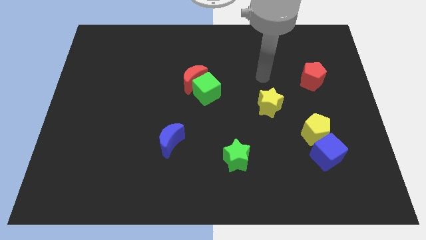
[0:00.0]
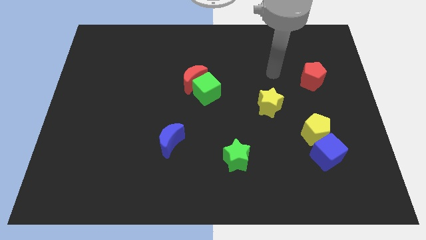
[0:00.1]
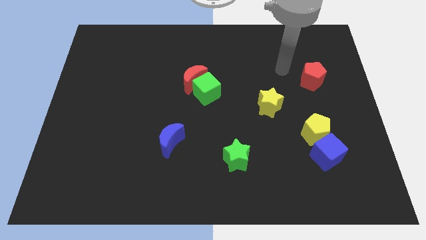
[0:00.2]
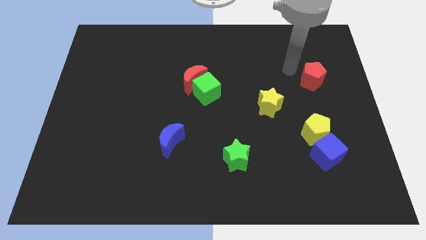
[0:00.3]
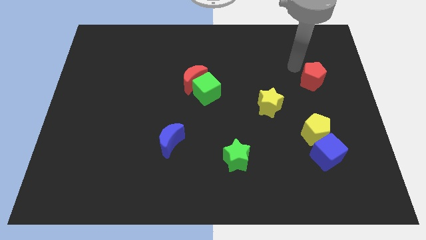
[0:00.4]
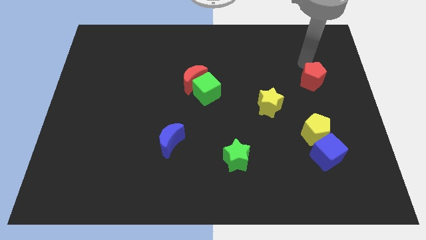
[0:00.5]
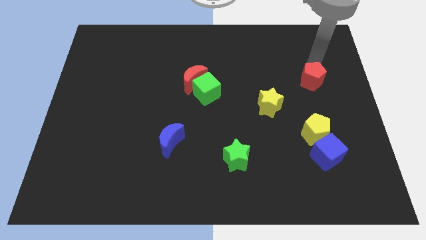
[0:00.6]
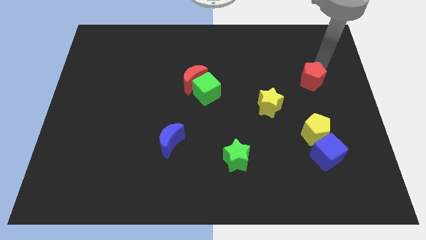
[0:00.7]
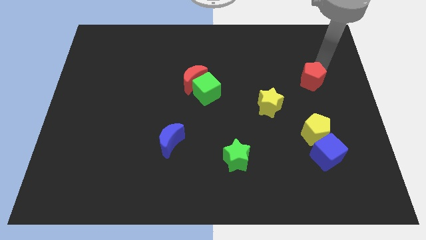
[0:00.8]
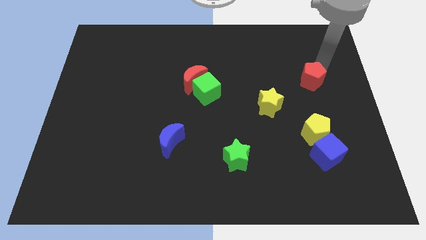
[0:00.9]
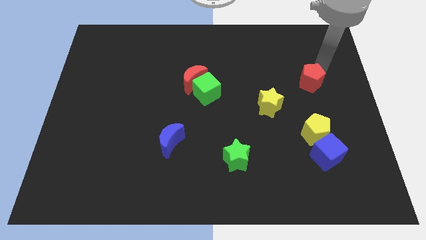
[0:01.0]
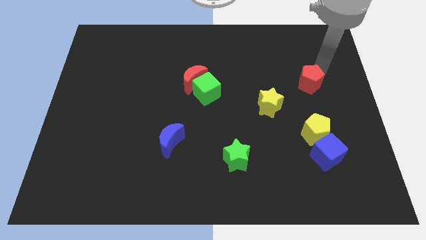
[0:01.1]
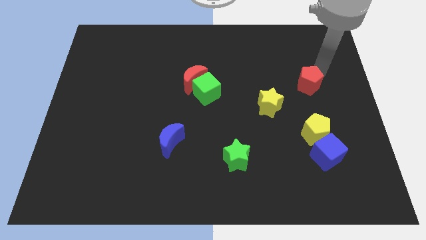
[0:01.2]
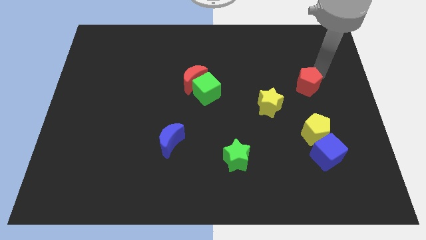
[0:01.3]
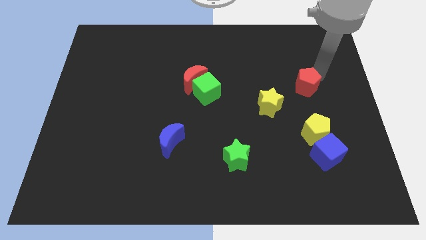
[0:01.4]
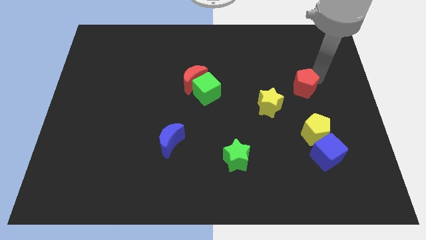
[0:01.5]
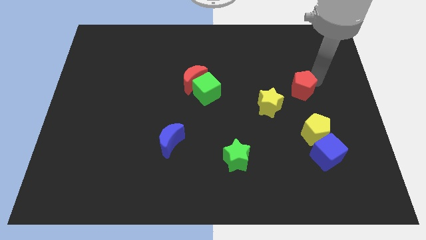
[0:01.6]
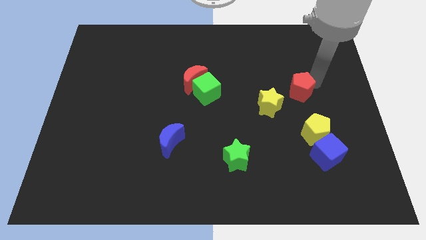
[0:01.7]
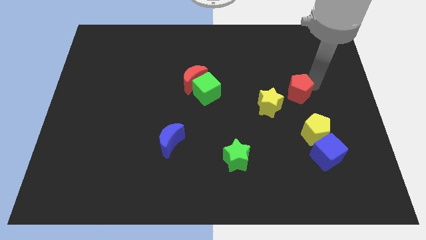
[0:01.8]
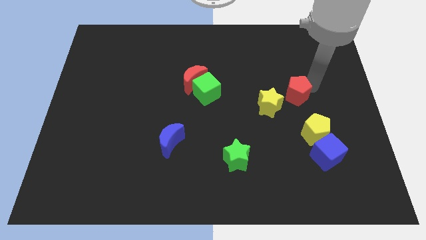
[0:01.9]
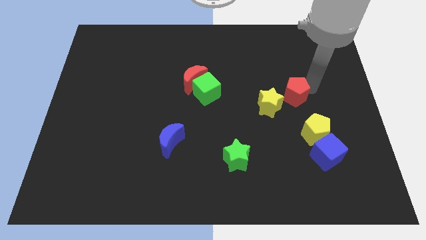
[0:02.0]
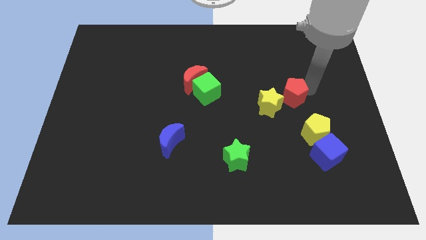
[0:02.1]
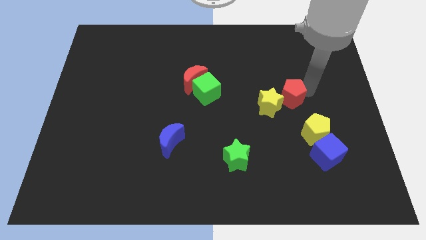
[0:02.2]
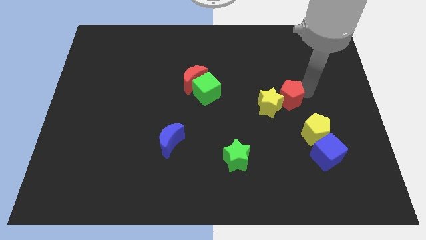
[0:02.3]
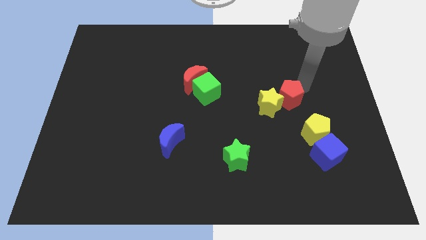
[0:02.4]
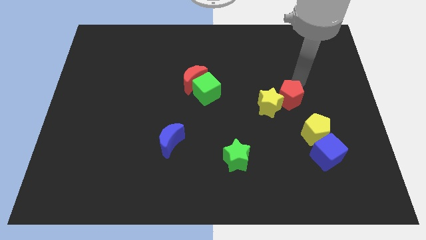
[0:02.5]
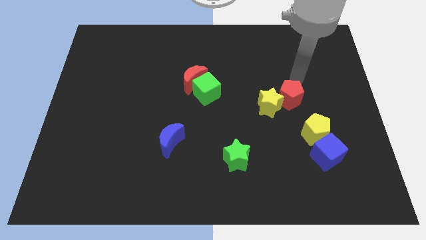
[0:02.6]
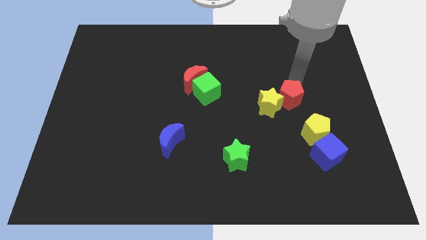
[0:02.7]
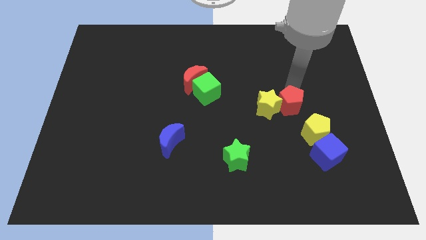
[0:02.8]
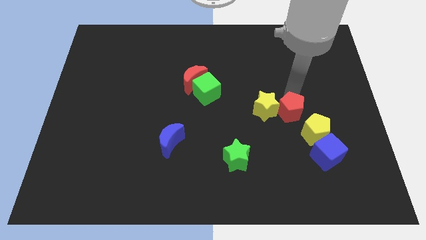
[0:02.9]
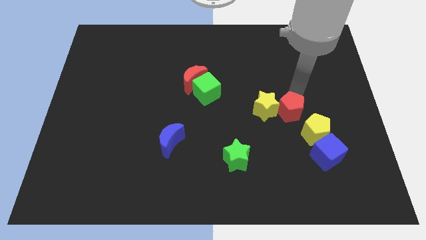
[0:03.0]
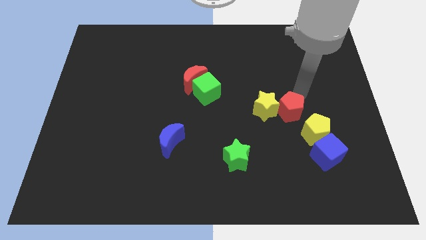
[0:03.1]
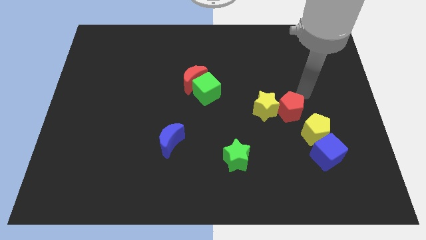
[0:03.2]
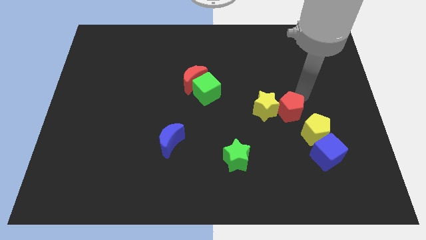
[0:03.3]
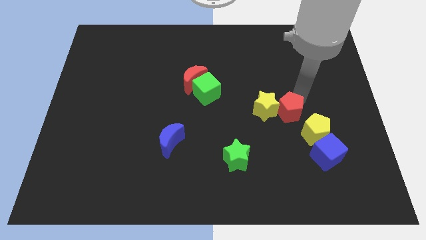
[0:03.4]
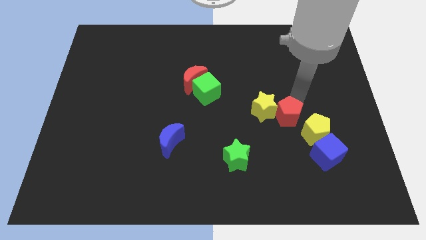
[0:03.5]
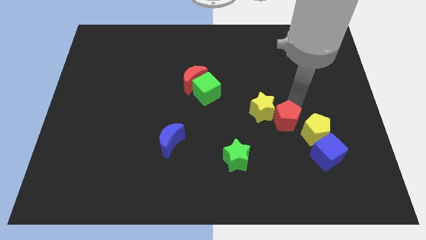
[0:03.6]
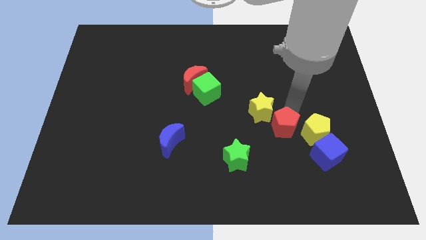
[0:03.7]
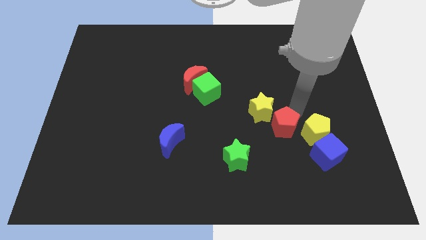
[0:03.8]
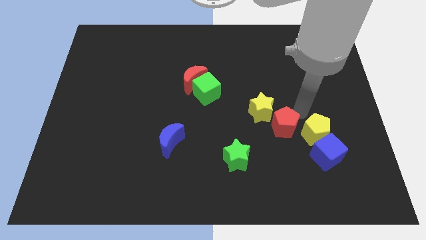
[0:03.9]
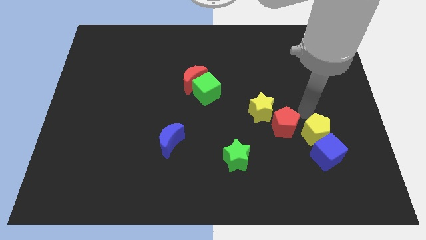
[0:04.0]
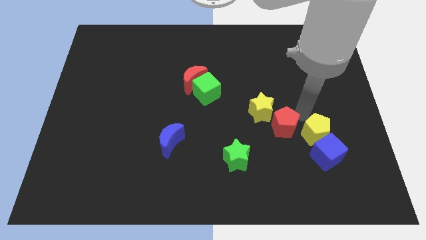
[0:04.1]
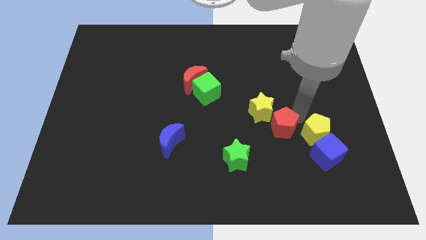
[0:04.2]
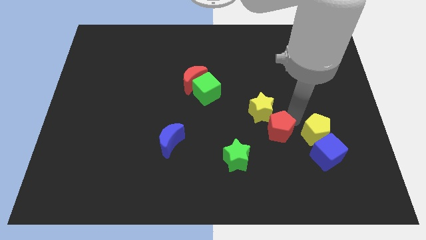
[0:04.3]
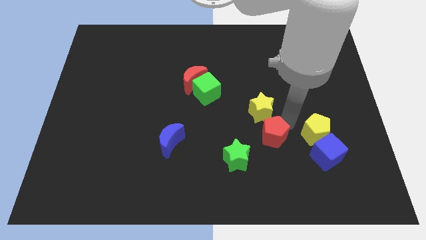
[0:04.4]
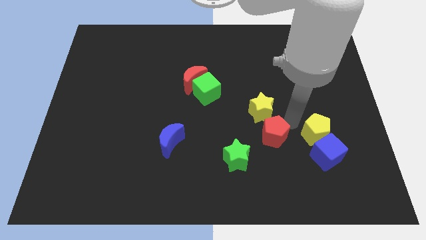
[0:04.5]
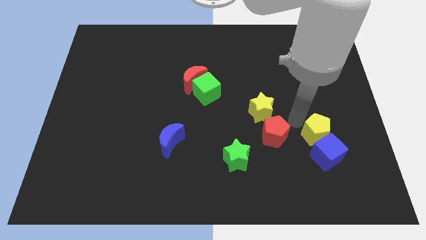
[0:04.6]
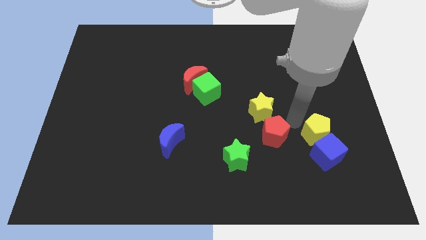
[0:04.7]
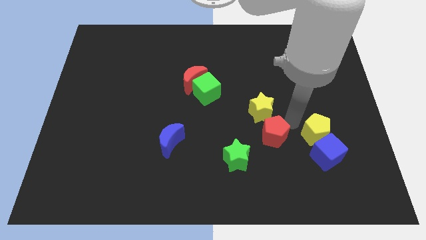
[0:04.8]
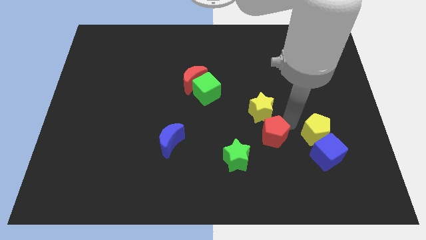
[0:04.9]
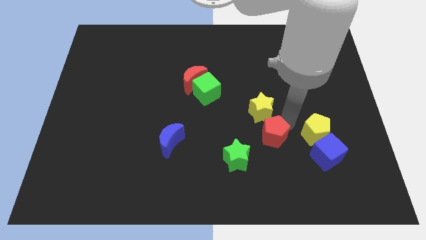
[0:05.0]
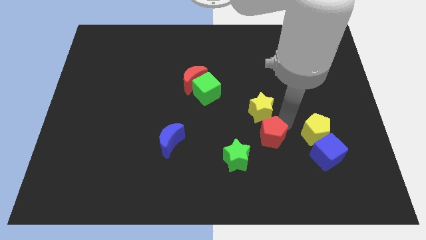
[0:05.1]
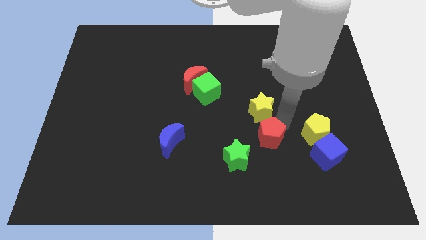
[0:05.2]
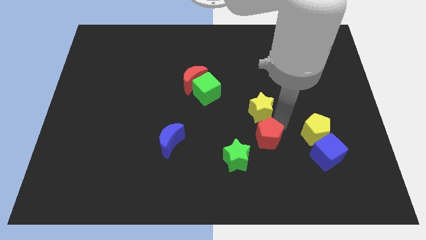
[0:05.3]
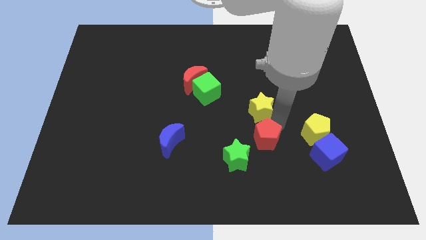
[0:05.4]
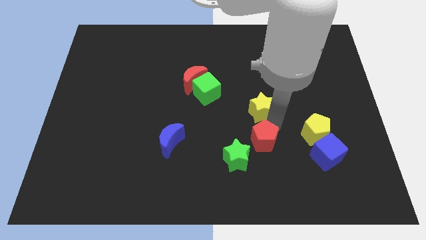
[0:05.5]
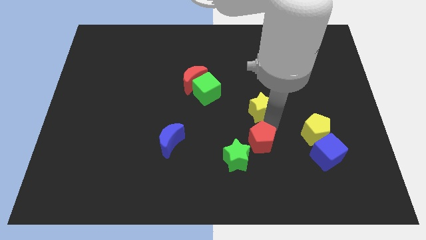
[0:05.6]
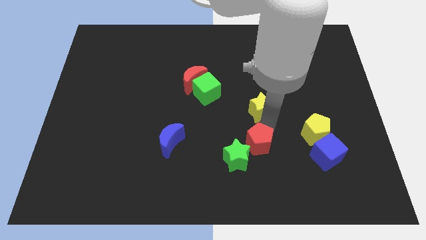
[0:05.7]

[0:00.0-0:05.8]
put the red pentagon towards the green star

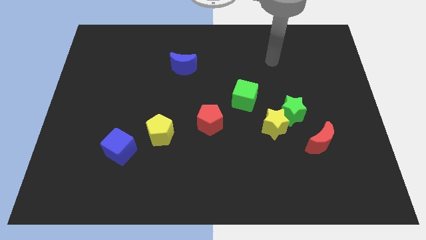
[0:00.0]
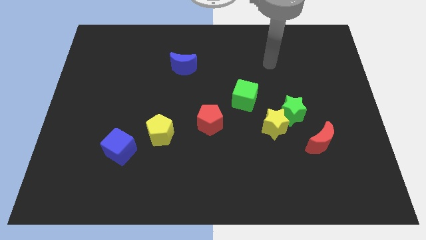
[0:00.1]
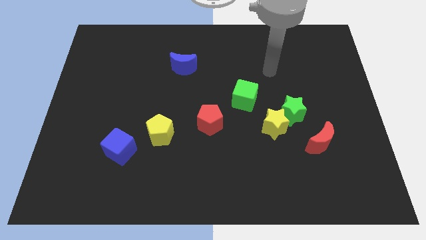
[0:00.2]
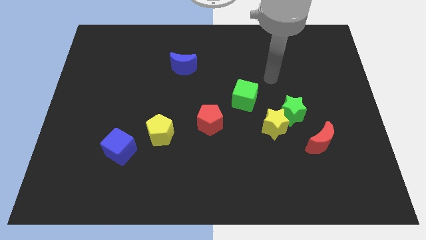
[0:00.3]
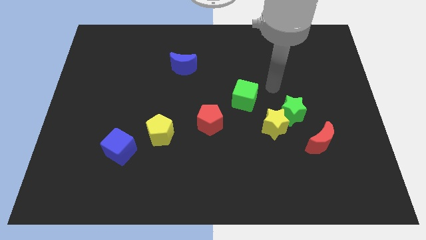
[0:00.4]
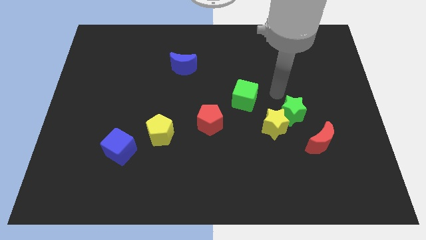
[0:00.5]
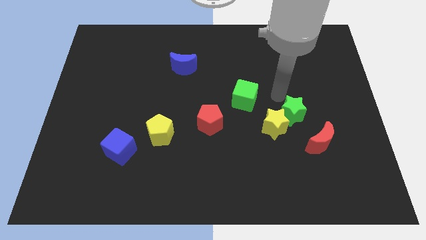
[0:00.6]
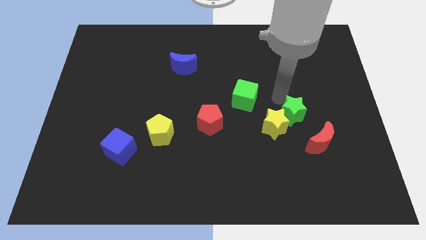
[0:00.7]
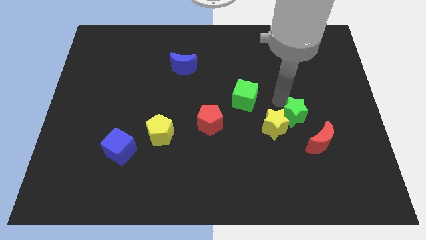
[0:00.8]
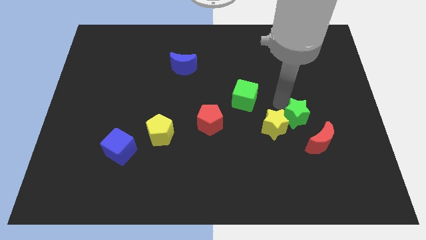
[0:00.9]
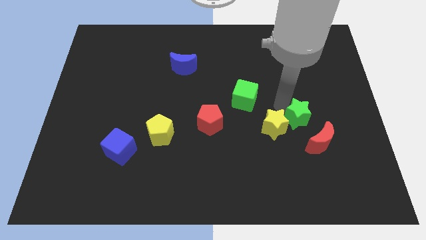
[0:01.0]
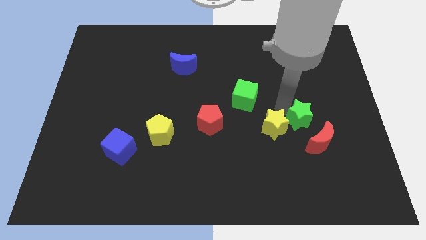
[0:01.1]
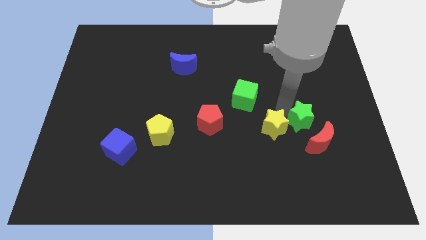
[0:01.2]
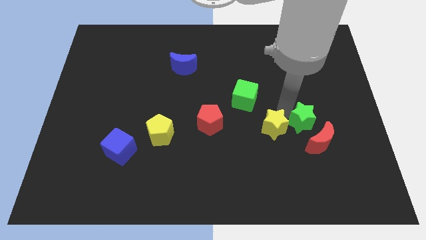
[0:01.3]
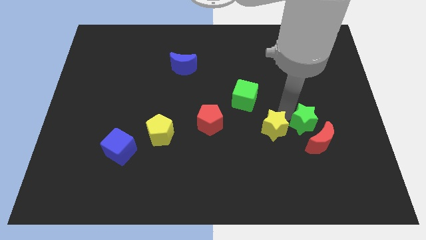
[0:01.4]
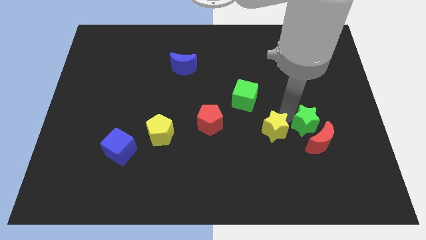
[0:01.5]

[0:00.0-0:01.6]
push the green star towards the red moon

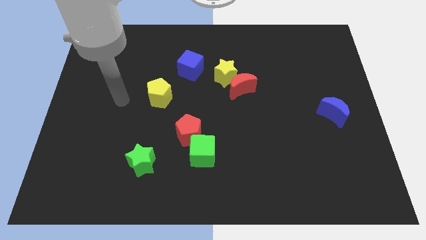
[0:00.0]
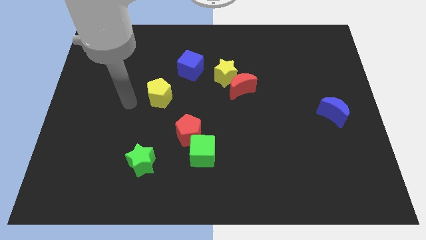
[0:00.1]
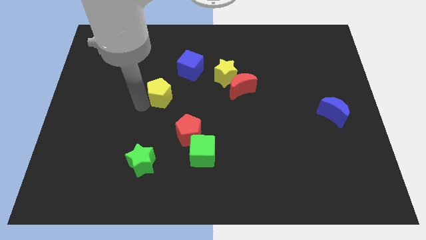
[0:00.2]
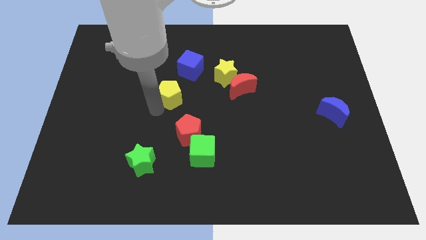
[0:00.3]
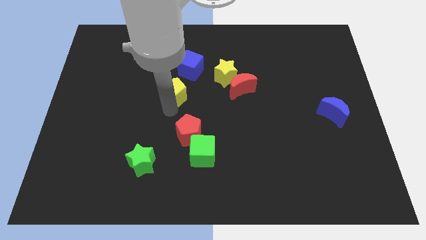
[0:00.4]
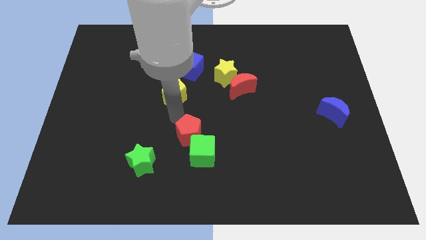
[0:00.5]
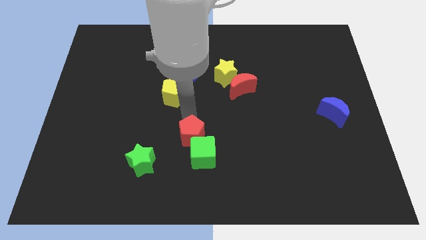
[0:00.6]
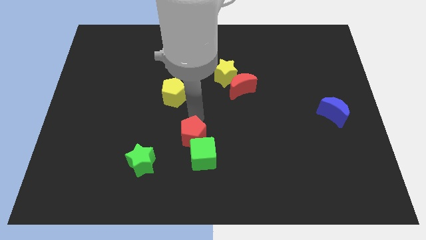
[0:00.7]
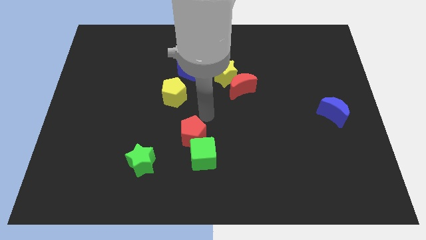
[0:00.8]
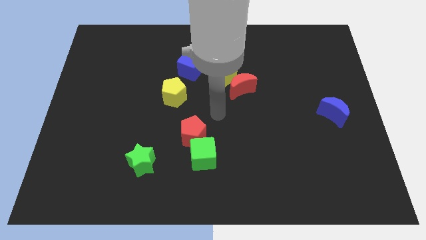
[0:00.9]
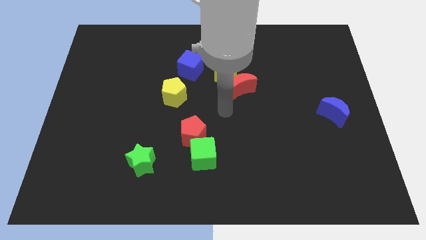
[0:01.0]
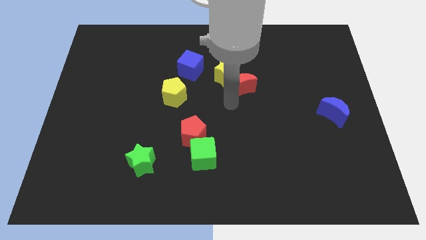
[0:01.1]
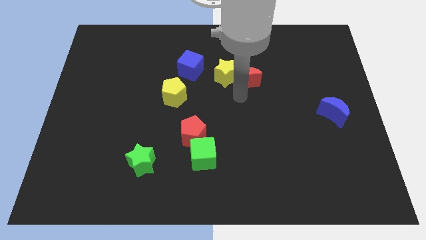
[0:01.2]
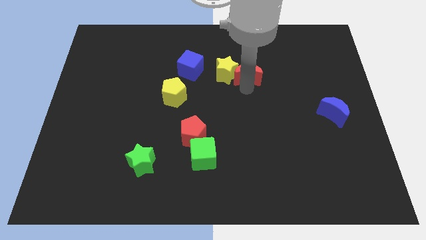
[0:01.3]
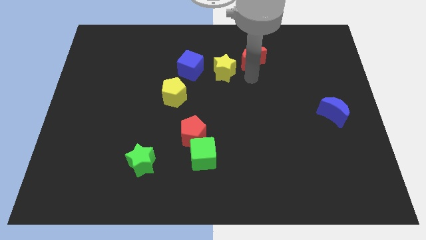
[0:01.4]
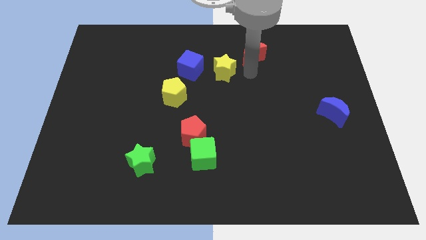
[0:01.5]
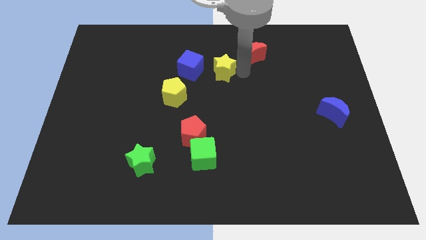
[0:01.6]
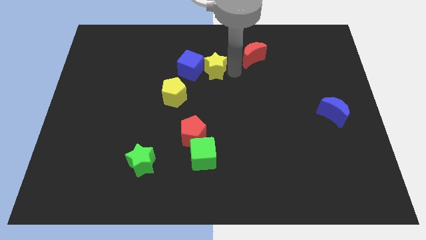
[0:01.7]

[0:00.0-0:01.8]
put the yellow star next to the blue cube
